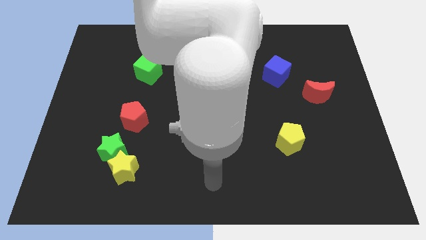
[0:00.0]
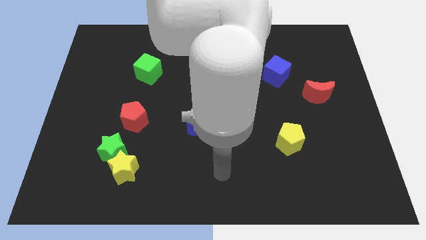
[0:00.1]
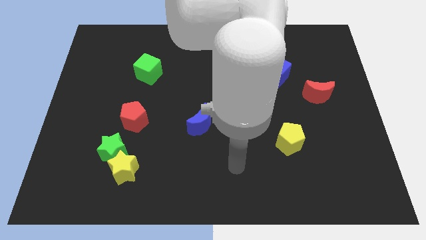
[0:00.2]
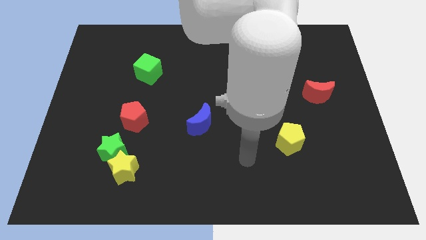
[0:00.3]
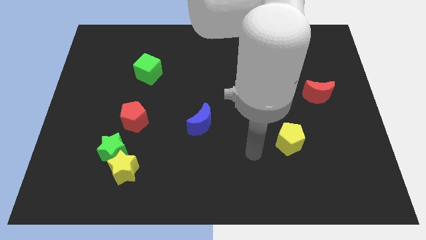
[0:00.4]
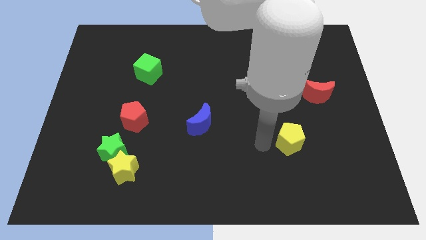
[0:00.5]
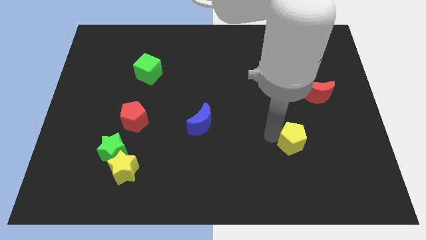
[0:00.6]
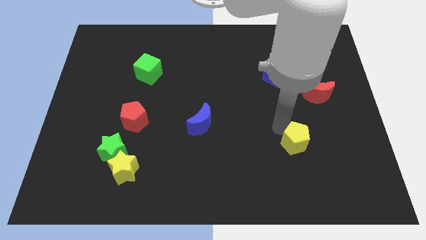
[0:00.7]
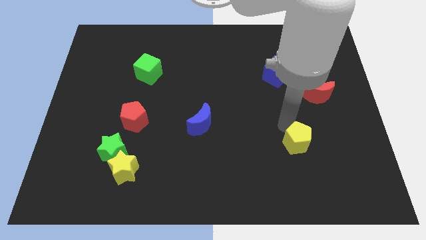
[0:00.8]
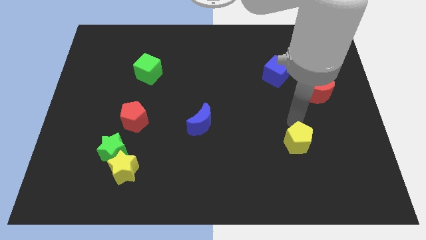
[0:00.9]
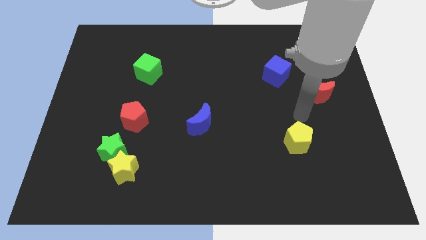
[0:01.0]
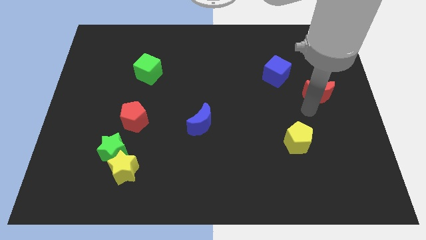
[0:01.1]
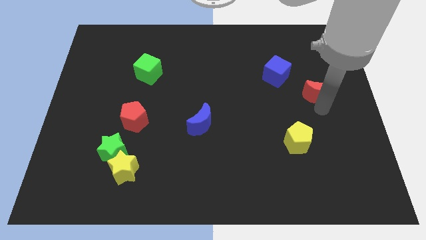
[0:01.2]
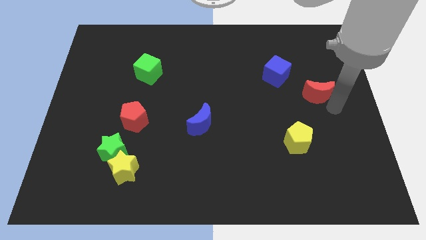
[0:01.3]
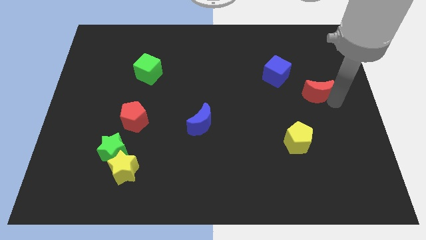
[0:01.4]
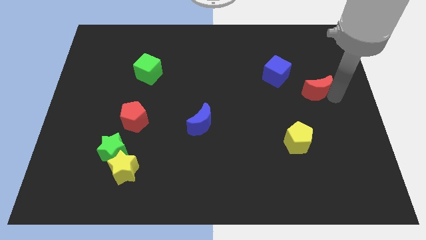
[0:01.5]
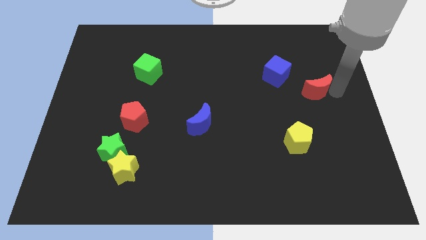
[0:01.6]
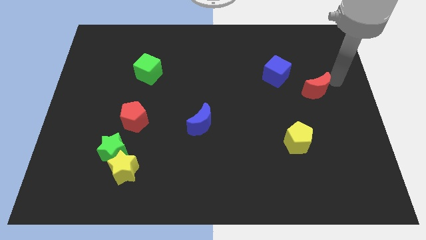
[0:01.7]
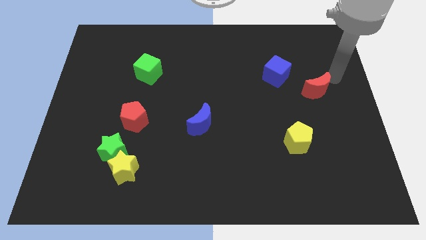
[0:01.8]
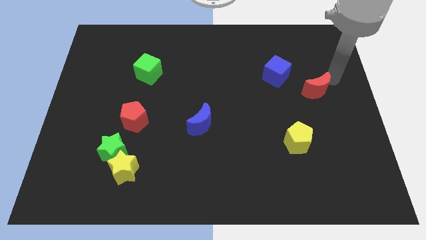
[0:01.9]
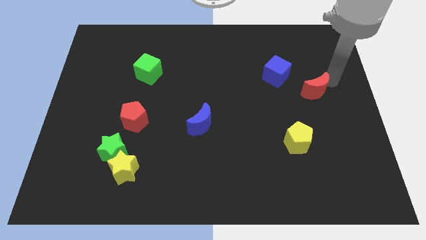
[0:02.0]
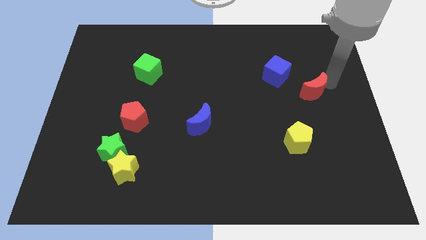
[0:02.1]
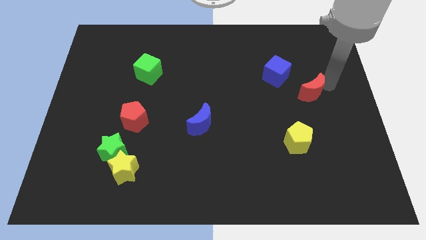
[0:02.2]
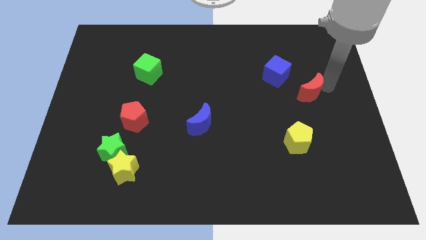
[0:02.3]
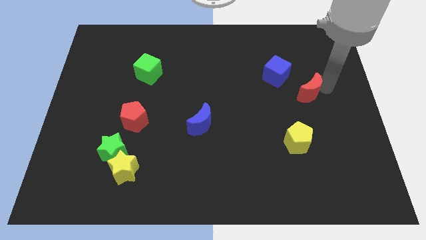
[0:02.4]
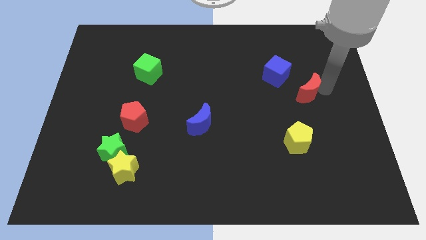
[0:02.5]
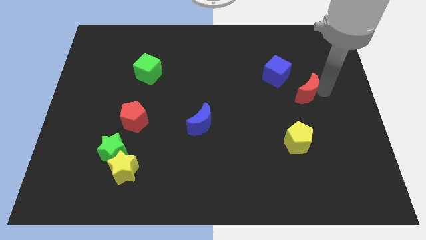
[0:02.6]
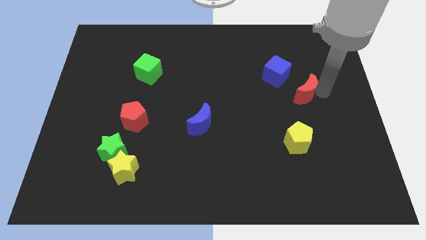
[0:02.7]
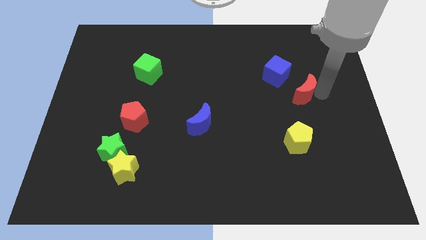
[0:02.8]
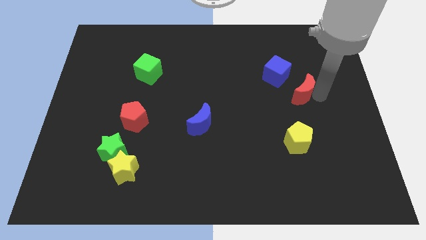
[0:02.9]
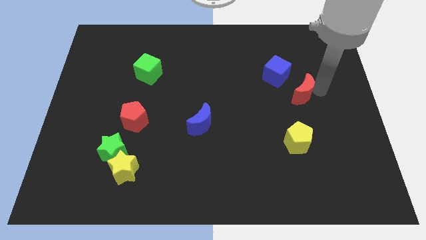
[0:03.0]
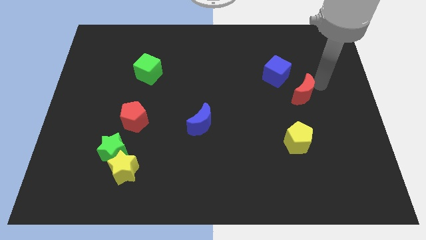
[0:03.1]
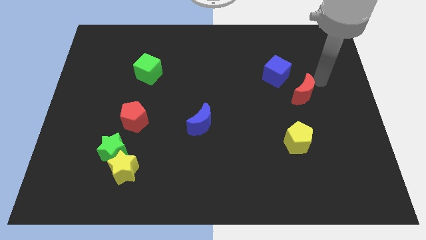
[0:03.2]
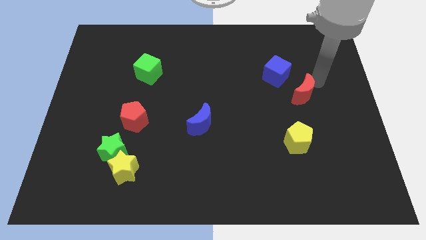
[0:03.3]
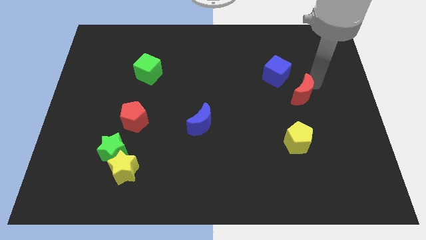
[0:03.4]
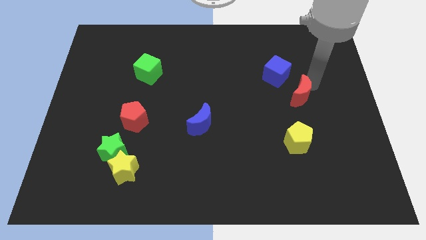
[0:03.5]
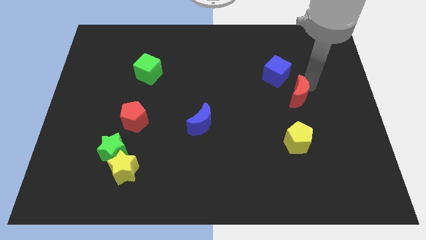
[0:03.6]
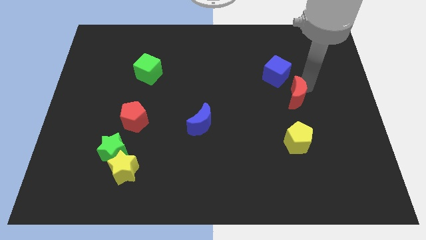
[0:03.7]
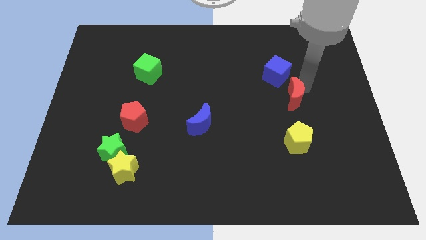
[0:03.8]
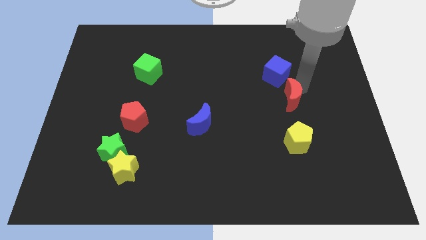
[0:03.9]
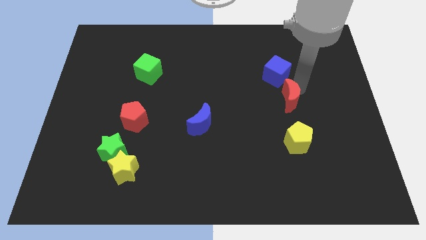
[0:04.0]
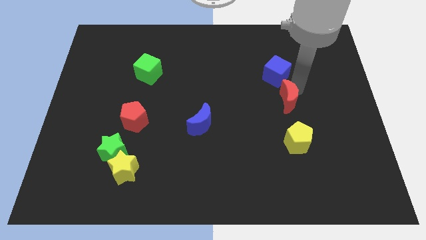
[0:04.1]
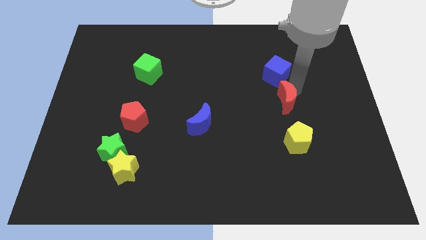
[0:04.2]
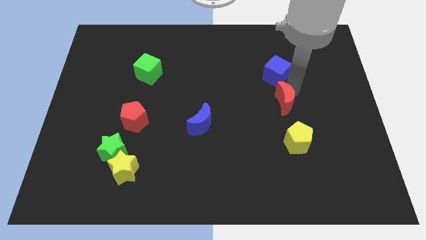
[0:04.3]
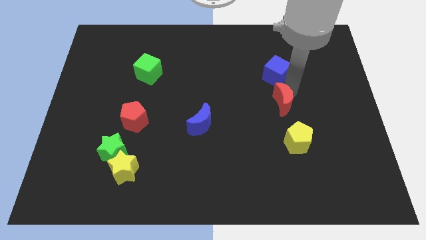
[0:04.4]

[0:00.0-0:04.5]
slide the red moon a little bit diagonally downwards and left

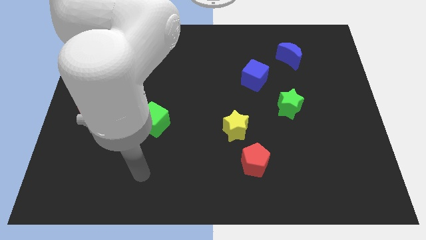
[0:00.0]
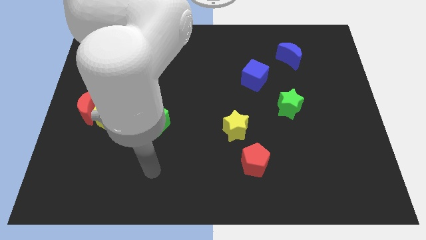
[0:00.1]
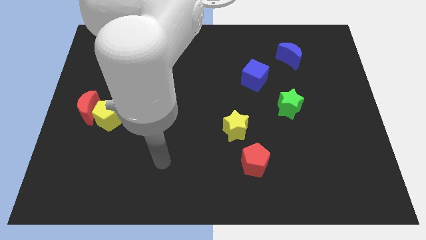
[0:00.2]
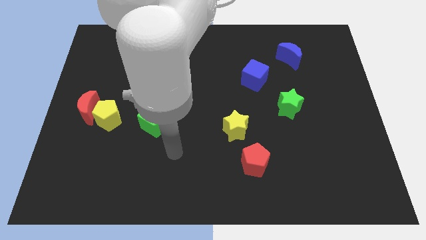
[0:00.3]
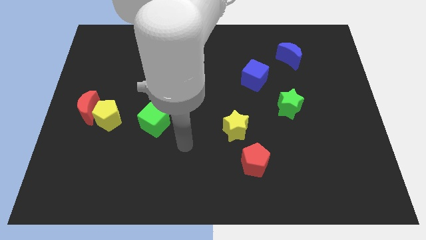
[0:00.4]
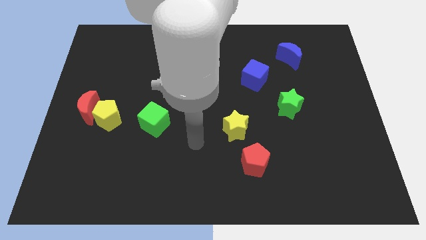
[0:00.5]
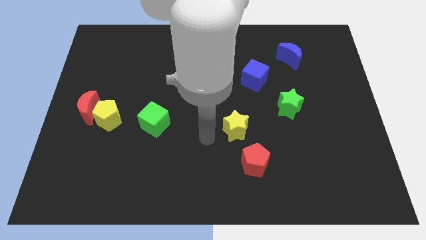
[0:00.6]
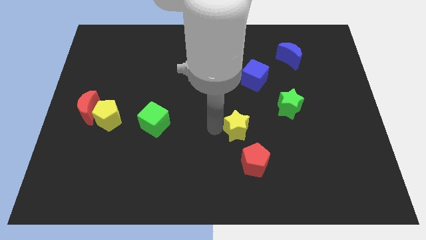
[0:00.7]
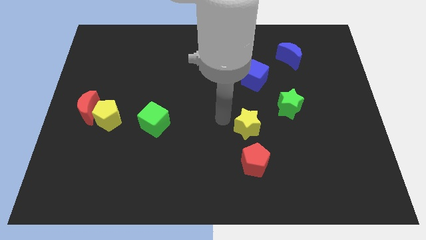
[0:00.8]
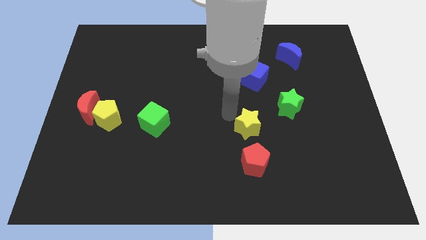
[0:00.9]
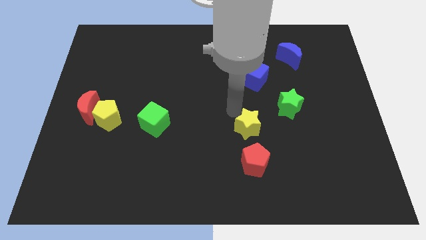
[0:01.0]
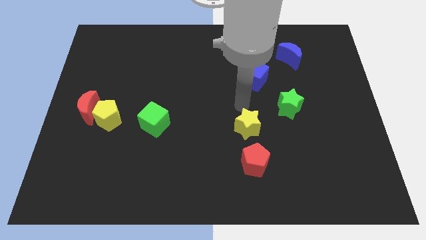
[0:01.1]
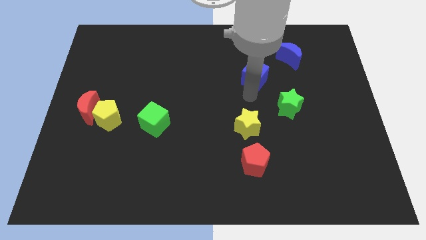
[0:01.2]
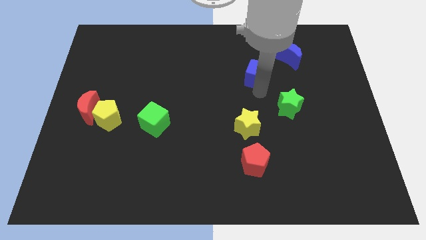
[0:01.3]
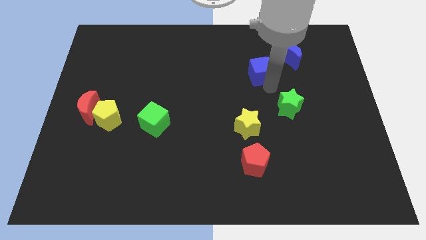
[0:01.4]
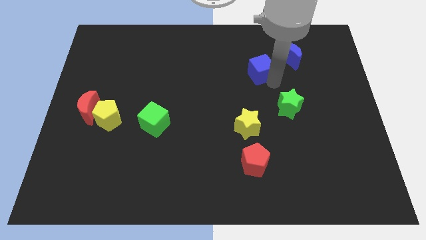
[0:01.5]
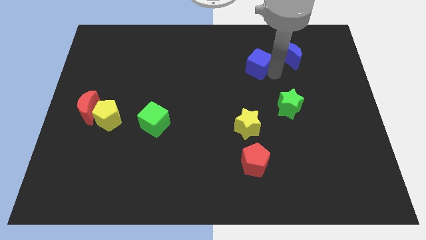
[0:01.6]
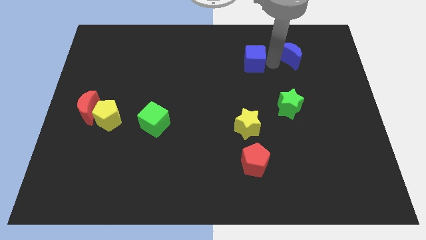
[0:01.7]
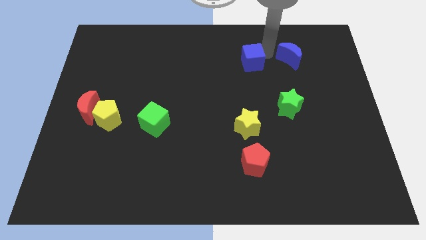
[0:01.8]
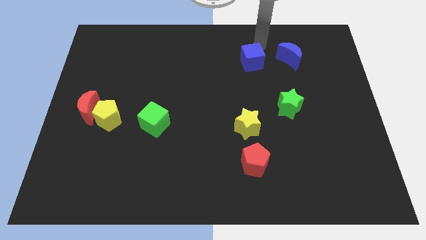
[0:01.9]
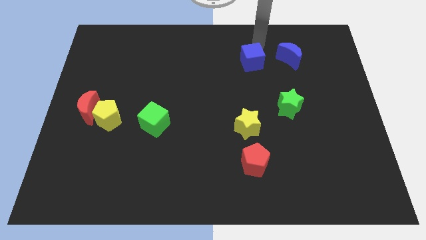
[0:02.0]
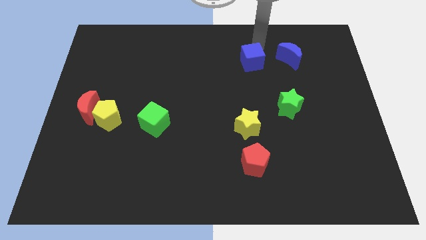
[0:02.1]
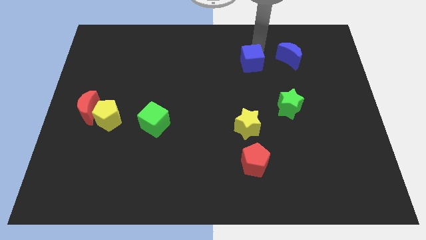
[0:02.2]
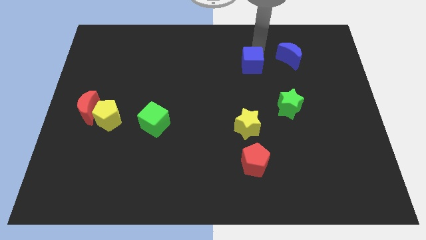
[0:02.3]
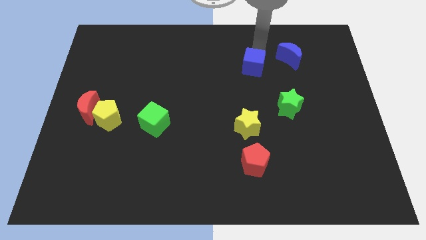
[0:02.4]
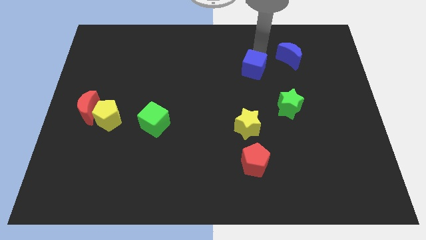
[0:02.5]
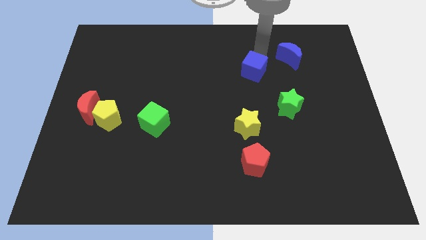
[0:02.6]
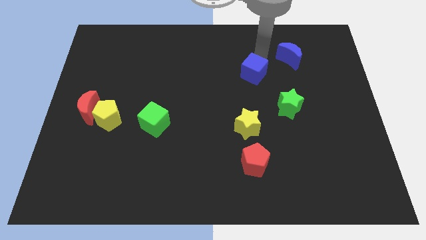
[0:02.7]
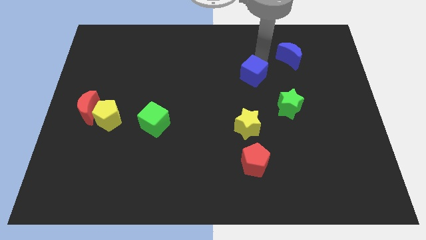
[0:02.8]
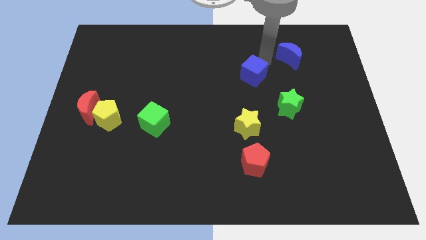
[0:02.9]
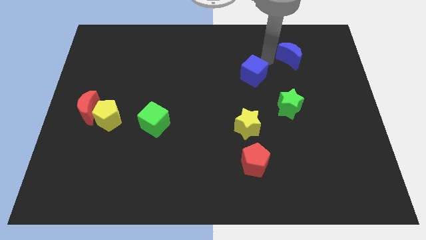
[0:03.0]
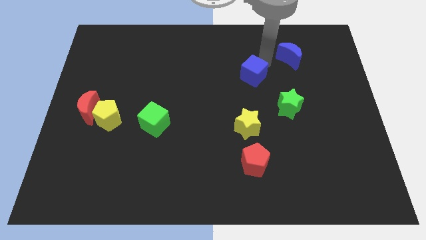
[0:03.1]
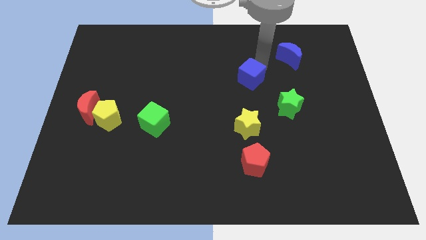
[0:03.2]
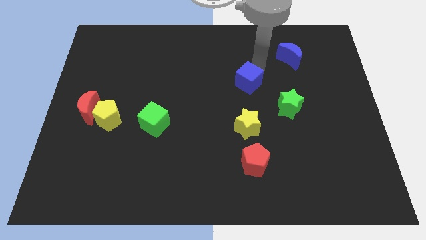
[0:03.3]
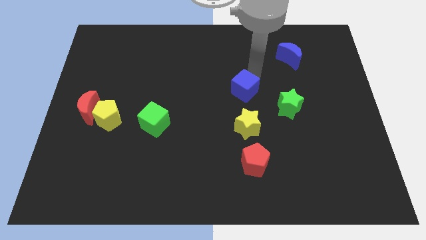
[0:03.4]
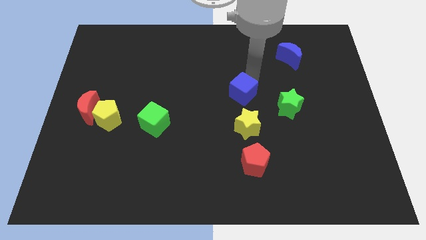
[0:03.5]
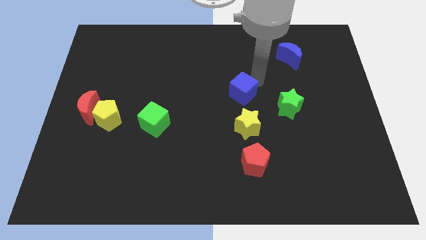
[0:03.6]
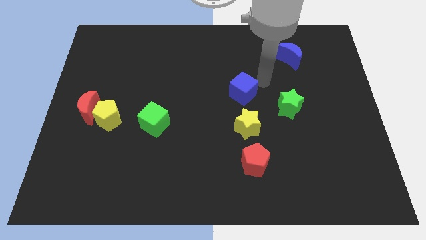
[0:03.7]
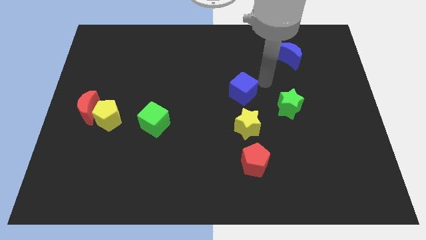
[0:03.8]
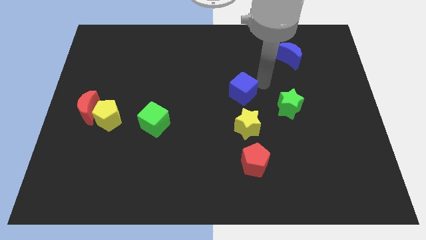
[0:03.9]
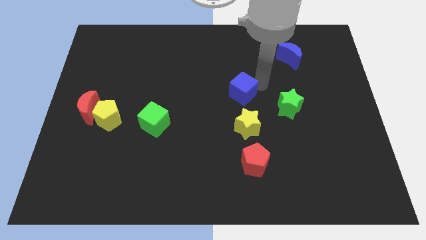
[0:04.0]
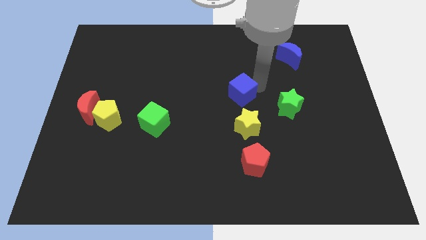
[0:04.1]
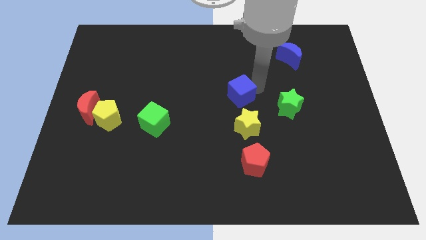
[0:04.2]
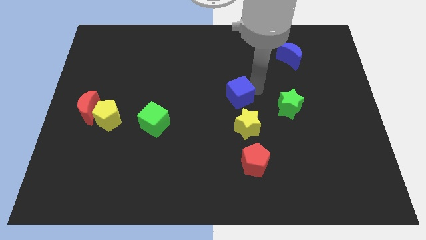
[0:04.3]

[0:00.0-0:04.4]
slightly slide the blue cube down and left diagonally
